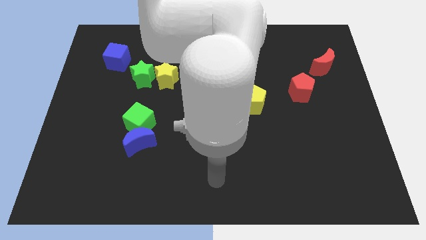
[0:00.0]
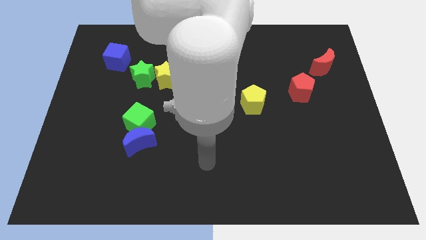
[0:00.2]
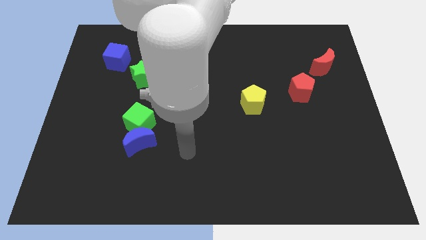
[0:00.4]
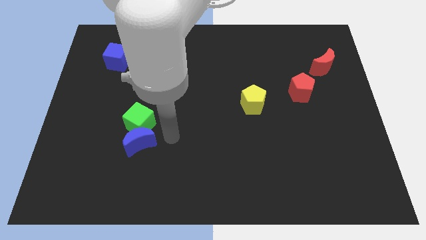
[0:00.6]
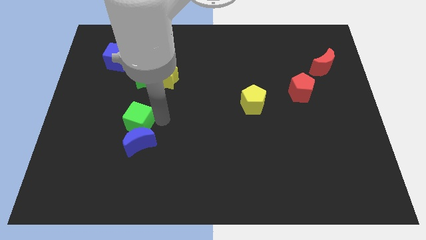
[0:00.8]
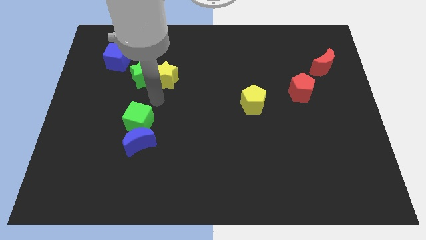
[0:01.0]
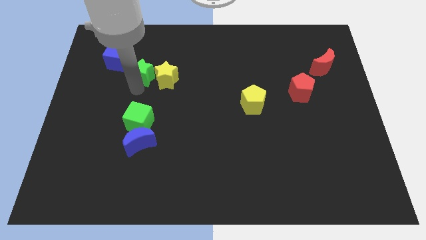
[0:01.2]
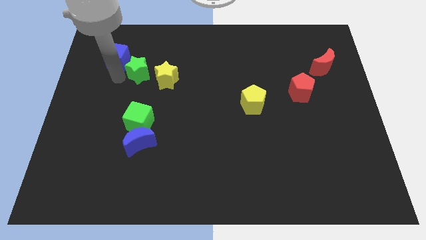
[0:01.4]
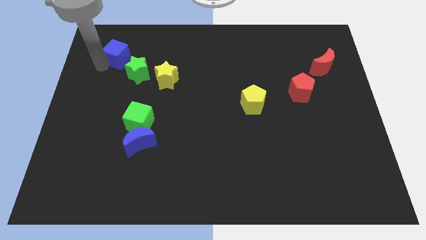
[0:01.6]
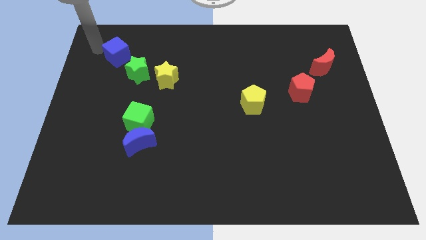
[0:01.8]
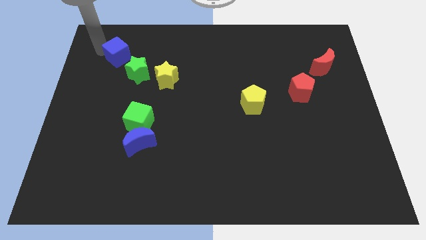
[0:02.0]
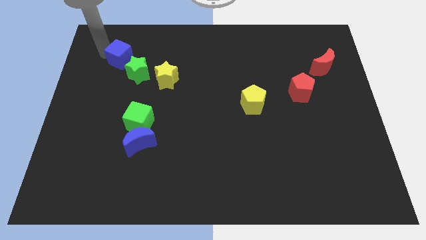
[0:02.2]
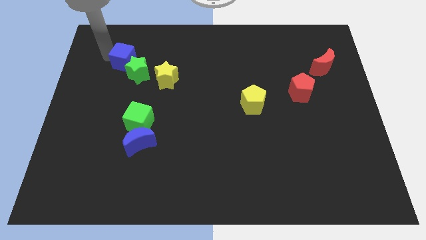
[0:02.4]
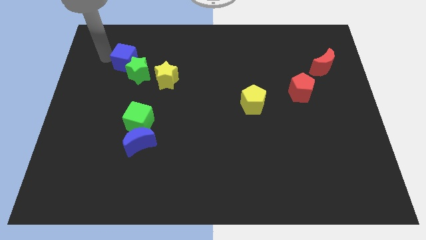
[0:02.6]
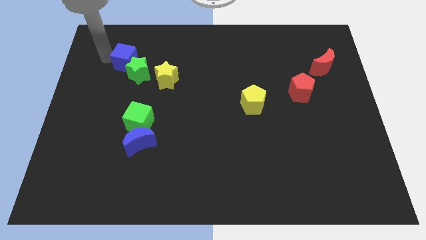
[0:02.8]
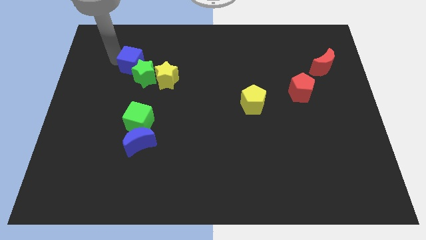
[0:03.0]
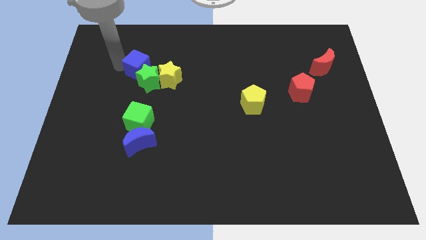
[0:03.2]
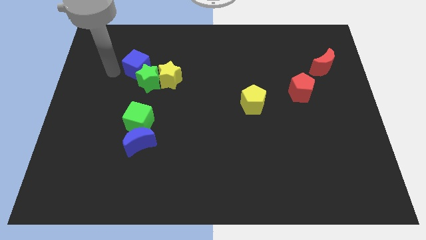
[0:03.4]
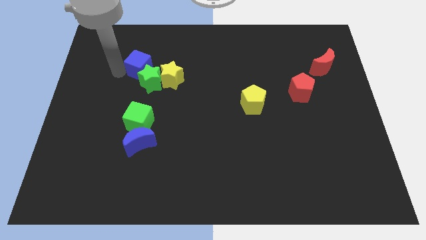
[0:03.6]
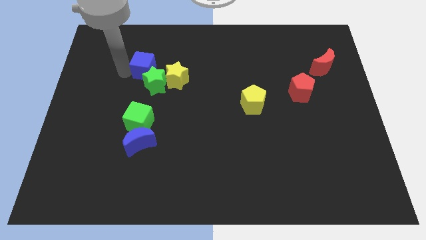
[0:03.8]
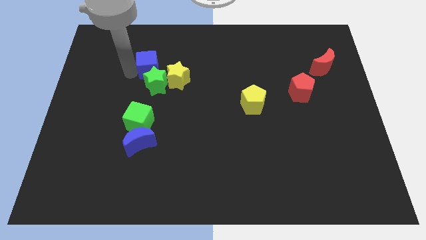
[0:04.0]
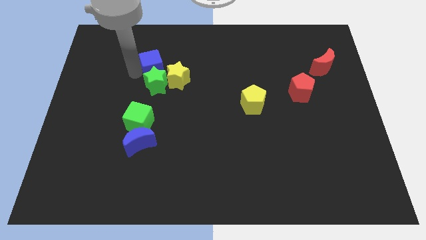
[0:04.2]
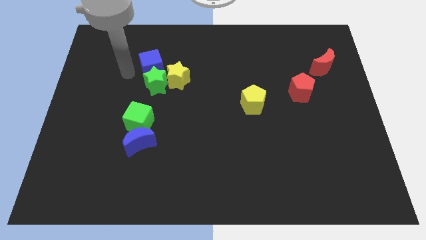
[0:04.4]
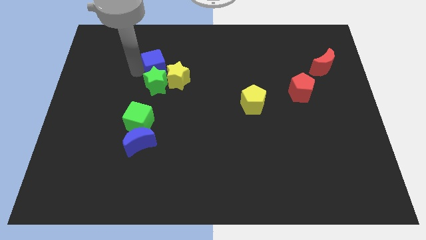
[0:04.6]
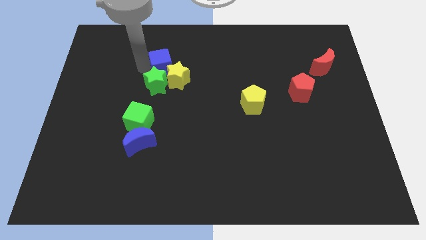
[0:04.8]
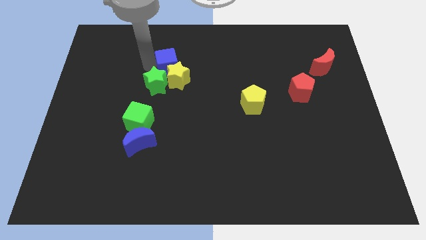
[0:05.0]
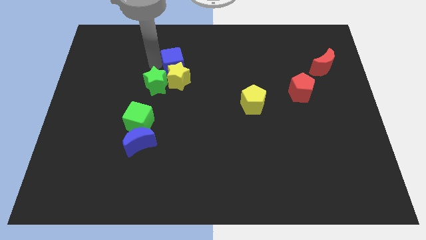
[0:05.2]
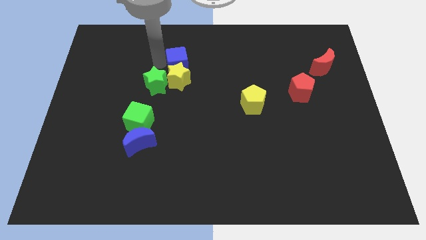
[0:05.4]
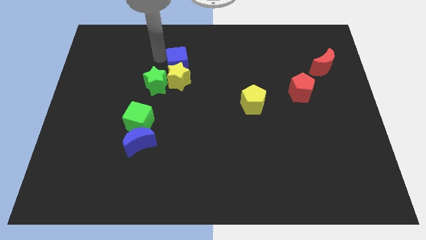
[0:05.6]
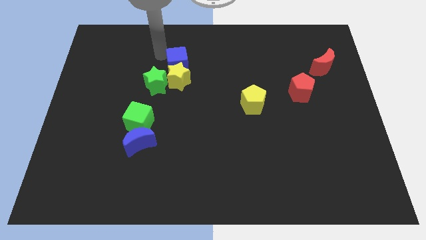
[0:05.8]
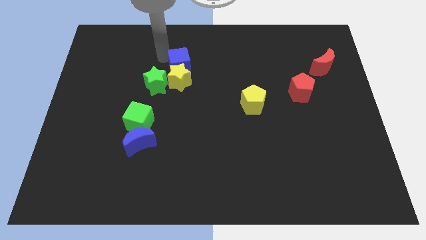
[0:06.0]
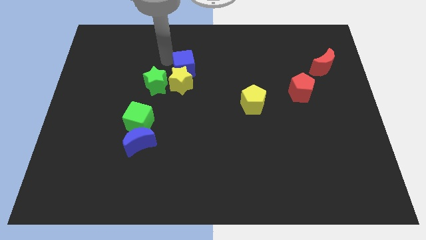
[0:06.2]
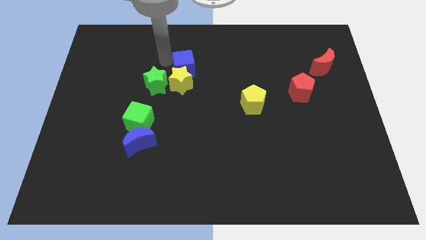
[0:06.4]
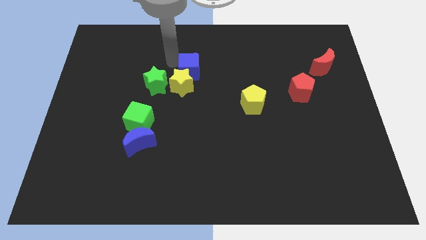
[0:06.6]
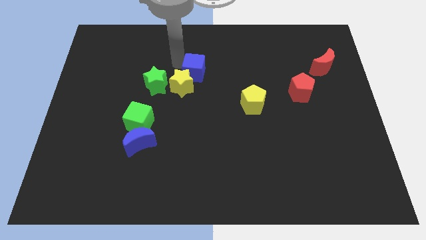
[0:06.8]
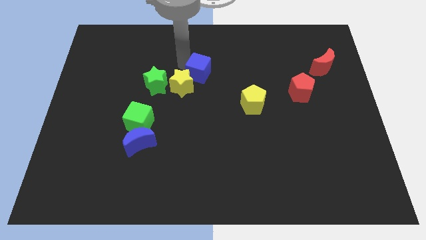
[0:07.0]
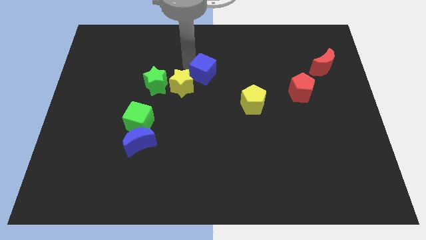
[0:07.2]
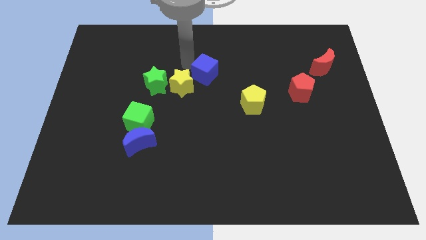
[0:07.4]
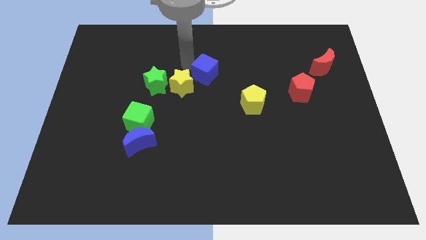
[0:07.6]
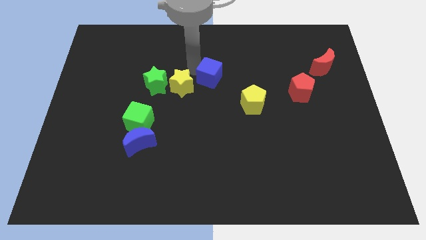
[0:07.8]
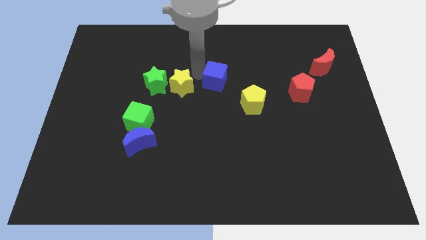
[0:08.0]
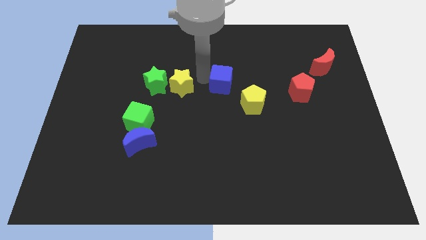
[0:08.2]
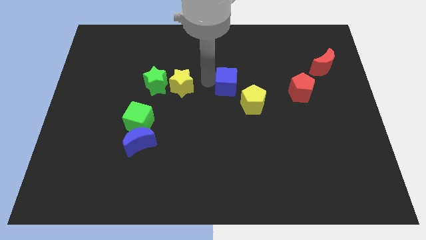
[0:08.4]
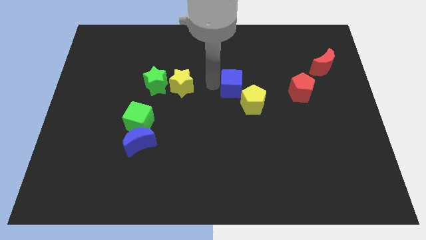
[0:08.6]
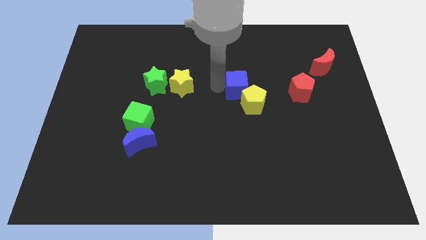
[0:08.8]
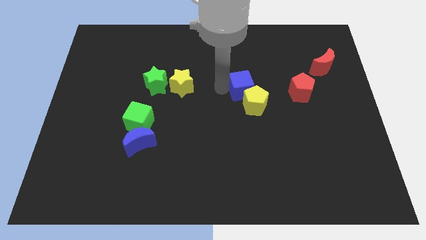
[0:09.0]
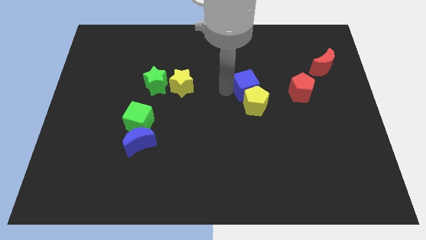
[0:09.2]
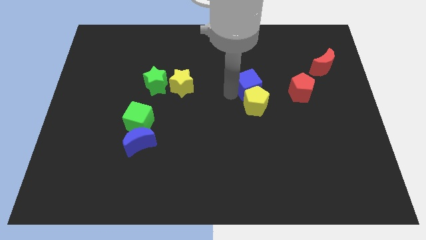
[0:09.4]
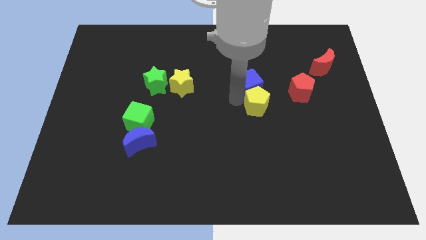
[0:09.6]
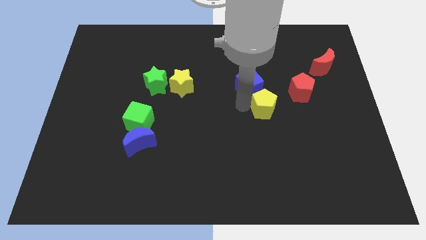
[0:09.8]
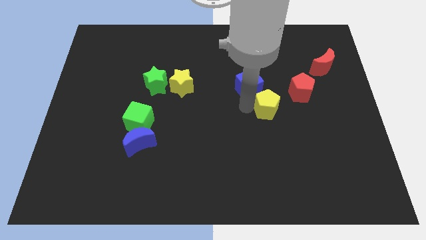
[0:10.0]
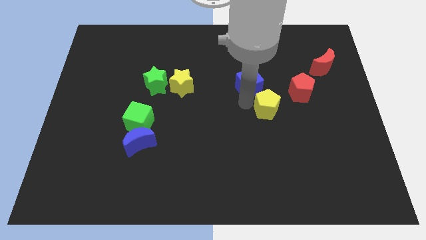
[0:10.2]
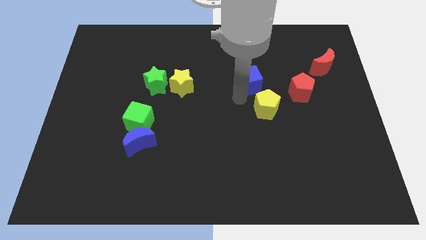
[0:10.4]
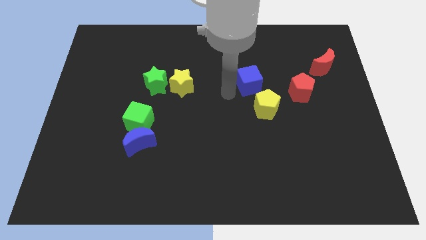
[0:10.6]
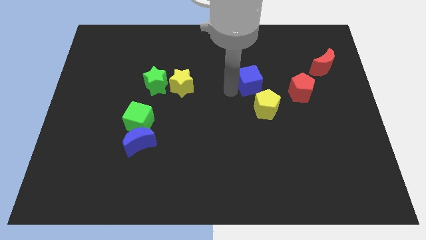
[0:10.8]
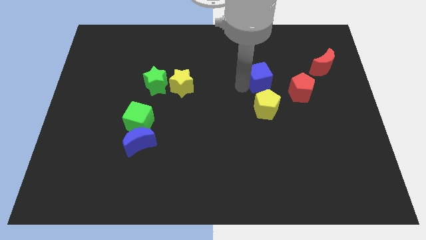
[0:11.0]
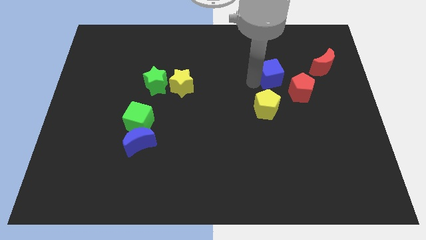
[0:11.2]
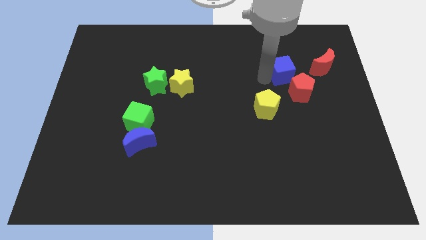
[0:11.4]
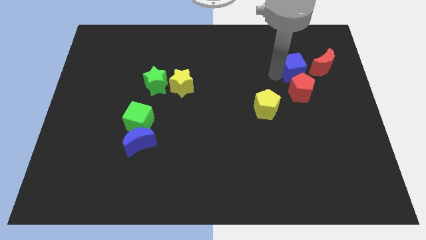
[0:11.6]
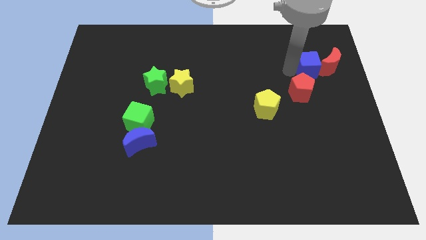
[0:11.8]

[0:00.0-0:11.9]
push the blue cube to the red moon

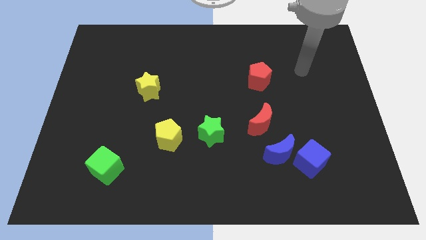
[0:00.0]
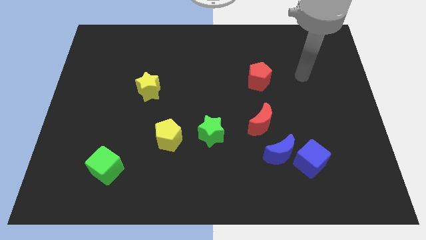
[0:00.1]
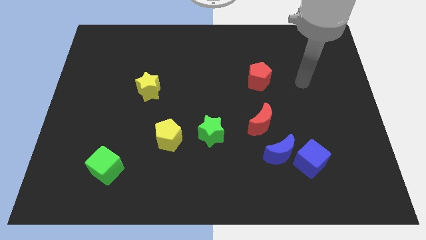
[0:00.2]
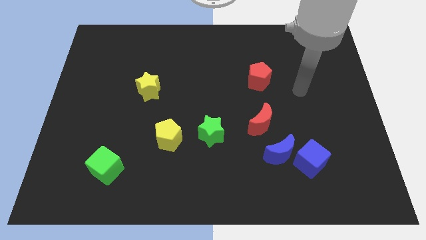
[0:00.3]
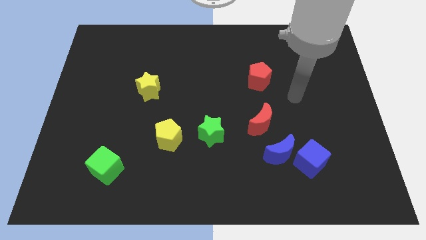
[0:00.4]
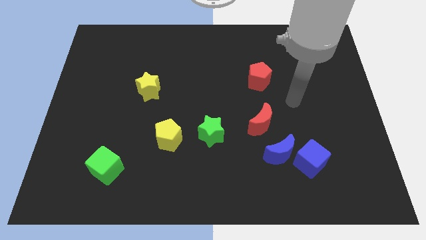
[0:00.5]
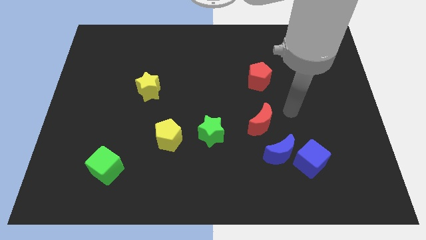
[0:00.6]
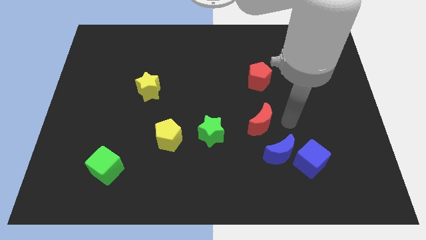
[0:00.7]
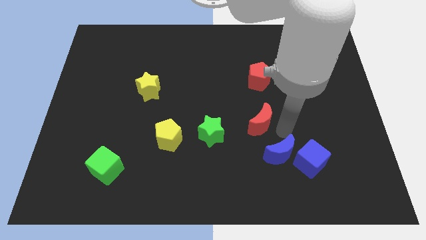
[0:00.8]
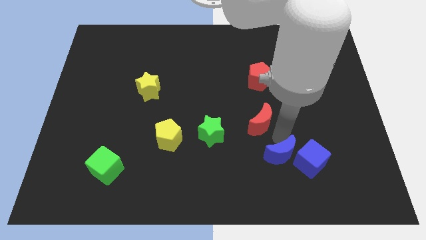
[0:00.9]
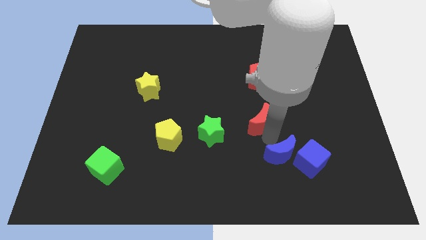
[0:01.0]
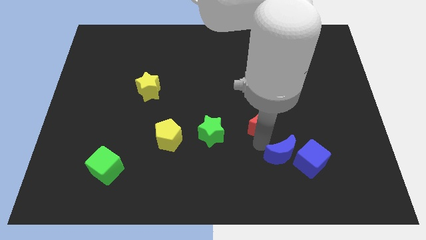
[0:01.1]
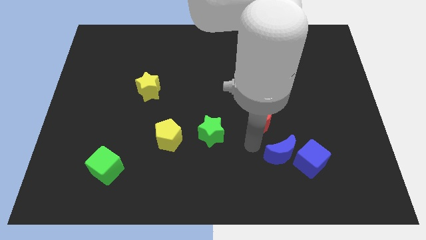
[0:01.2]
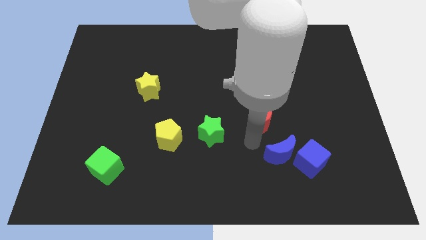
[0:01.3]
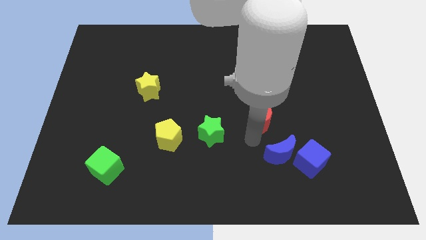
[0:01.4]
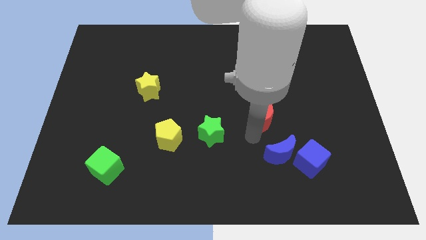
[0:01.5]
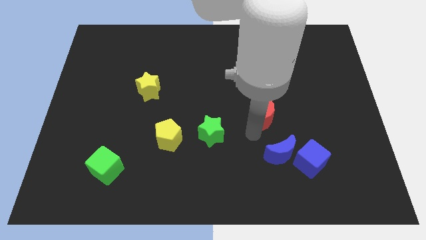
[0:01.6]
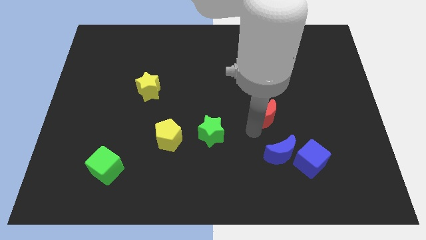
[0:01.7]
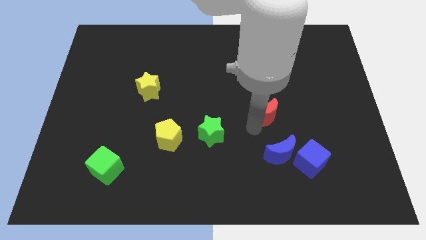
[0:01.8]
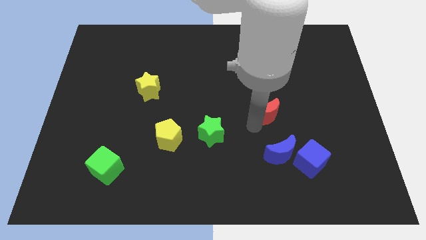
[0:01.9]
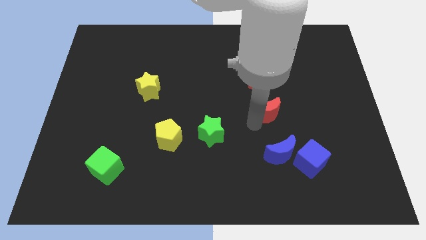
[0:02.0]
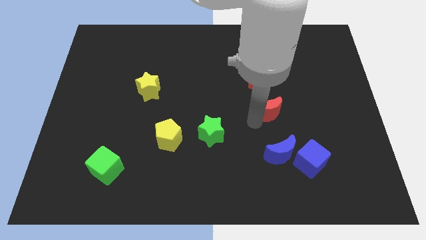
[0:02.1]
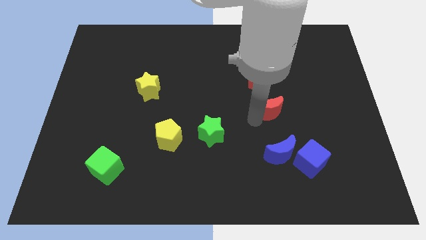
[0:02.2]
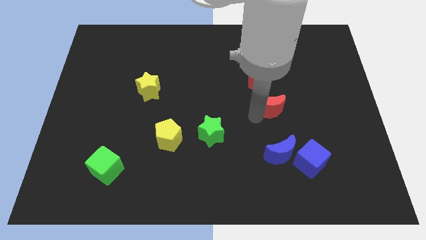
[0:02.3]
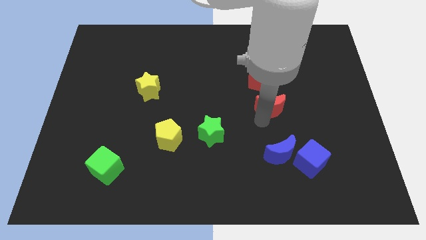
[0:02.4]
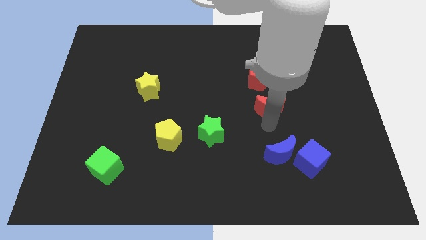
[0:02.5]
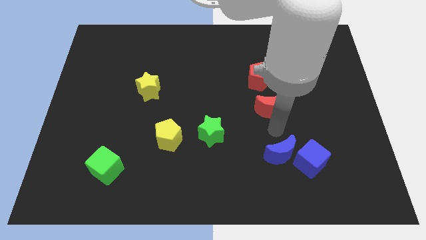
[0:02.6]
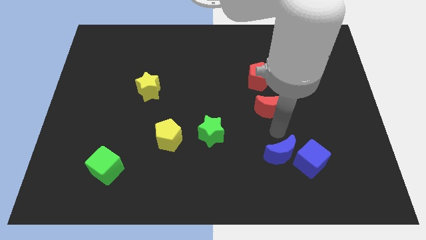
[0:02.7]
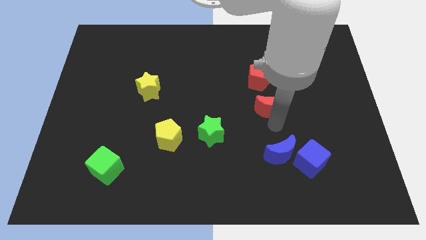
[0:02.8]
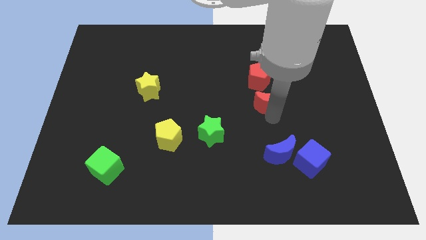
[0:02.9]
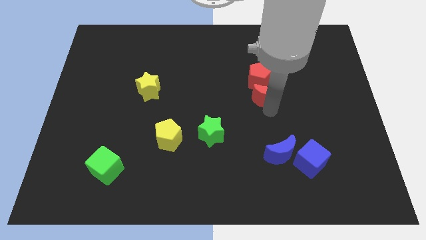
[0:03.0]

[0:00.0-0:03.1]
move the red moon to the red pentagon
